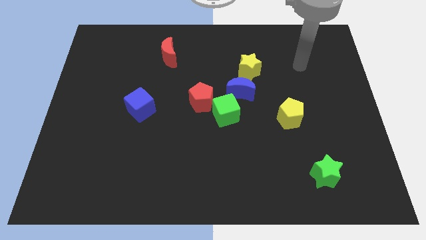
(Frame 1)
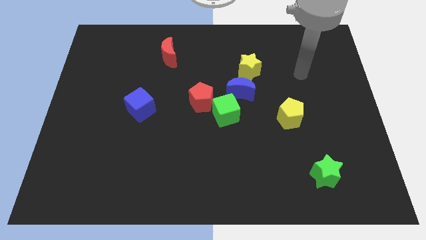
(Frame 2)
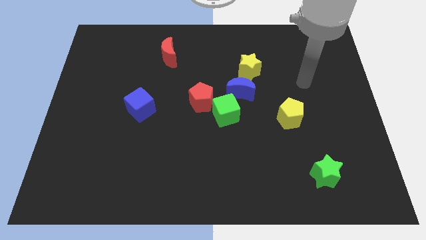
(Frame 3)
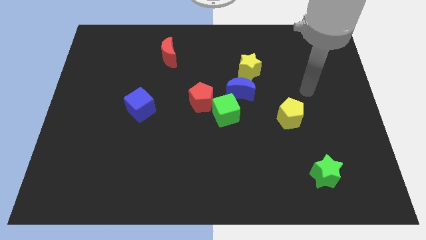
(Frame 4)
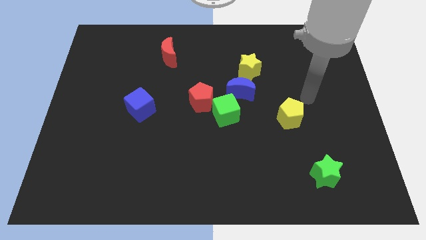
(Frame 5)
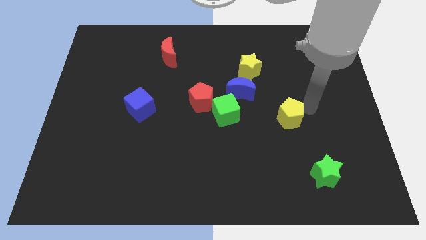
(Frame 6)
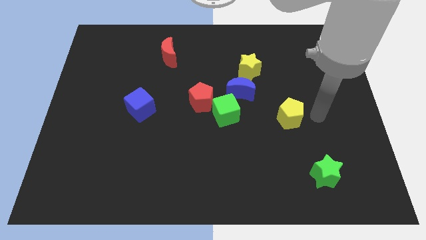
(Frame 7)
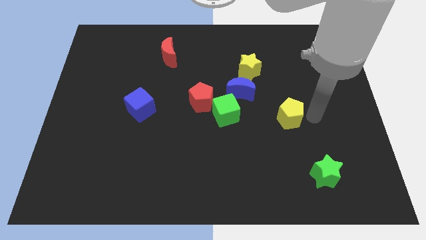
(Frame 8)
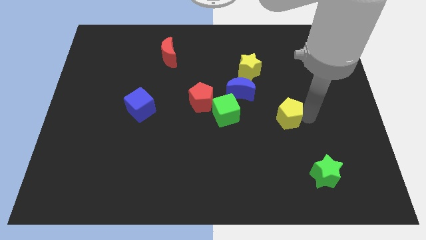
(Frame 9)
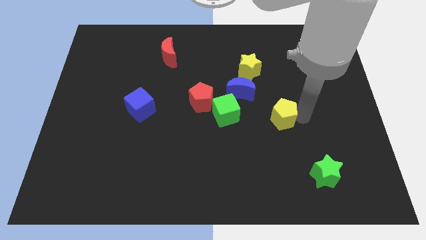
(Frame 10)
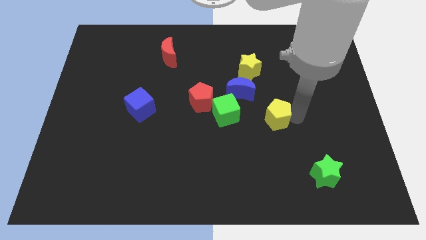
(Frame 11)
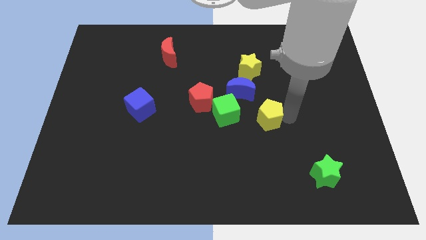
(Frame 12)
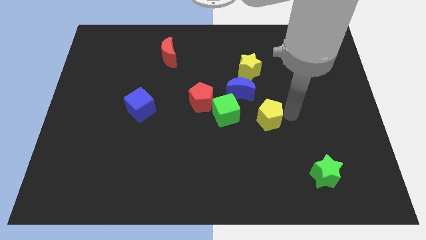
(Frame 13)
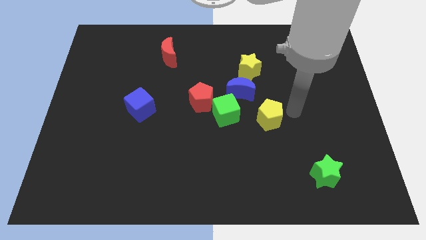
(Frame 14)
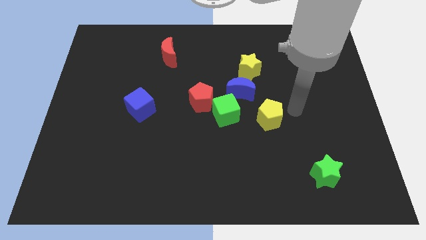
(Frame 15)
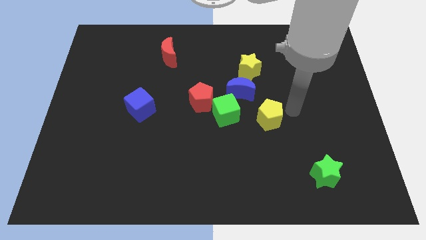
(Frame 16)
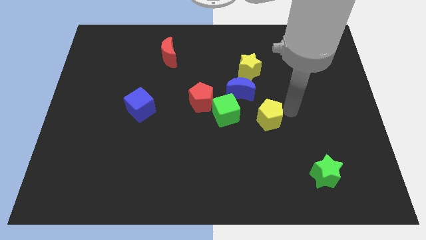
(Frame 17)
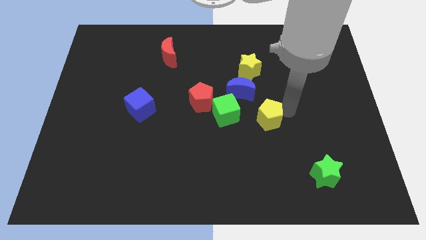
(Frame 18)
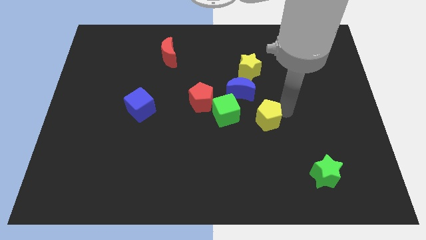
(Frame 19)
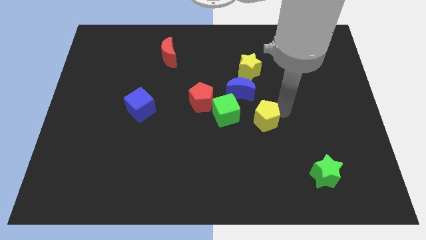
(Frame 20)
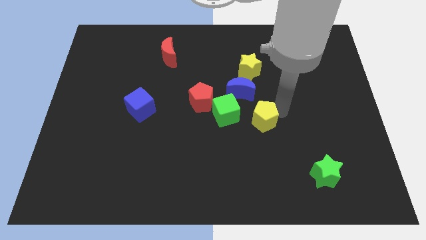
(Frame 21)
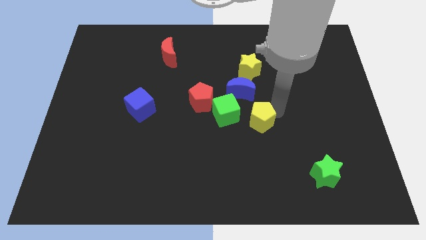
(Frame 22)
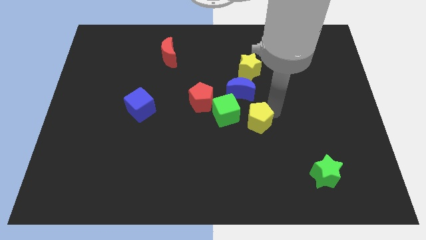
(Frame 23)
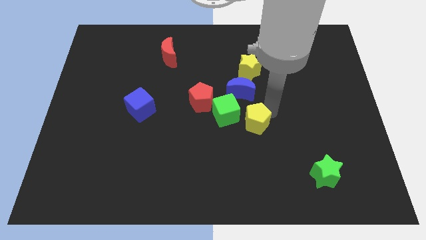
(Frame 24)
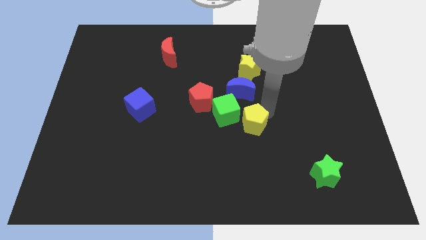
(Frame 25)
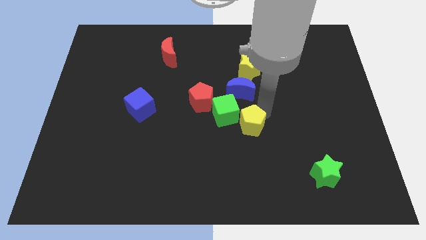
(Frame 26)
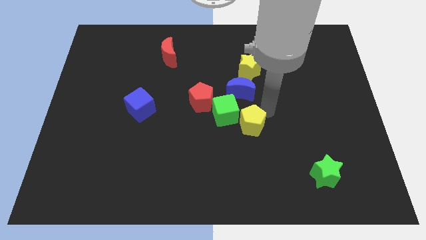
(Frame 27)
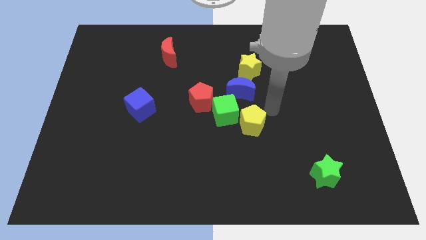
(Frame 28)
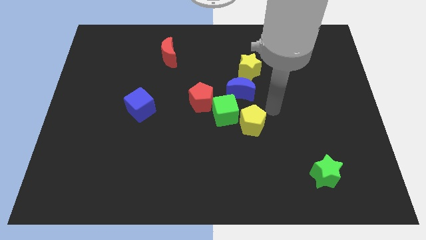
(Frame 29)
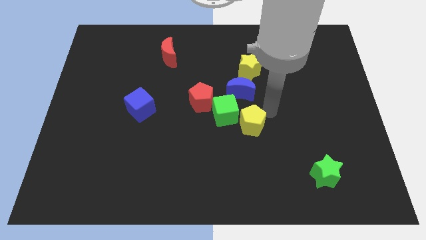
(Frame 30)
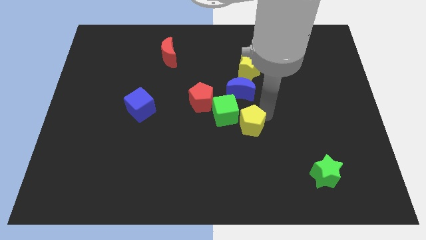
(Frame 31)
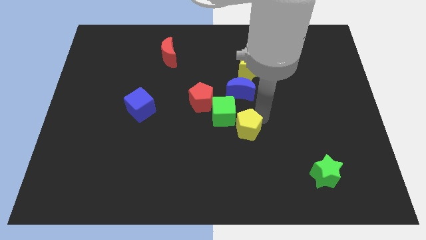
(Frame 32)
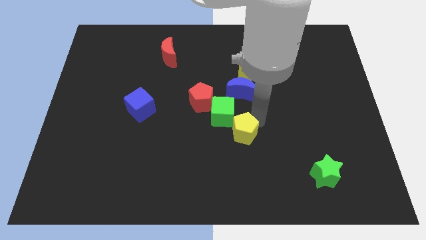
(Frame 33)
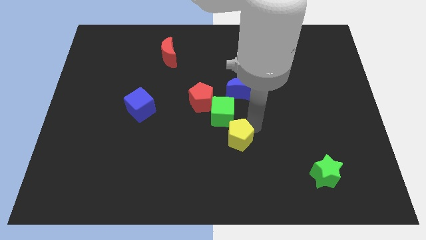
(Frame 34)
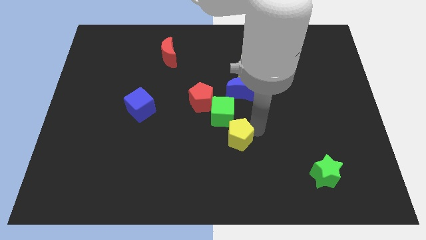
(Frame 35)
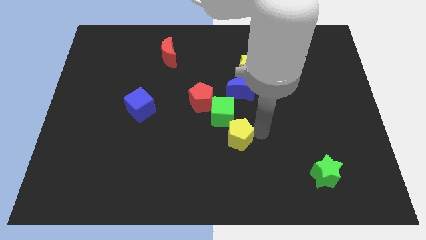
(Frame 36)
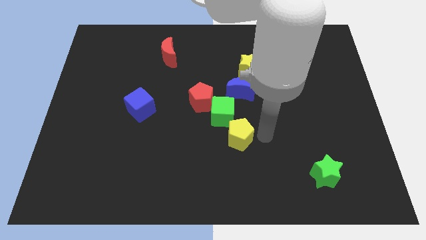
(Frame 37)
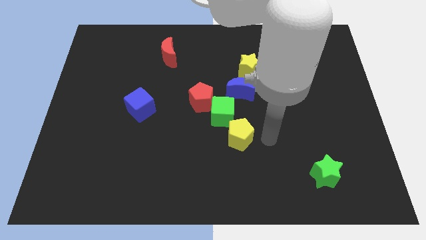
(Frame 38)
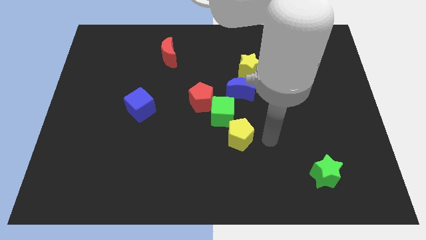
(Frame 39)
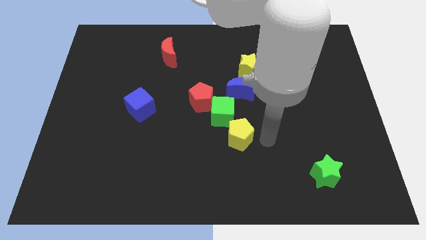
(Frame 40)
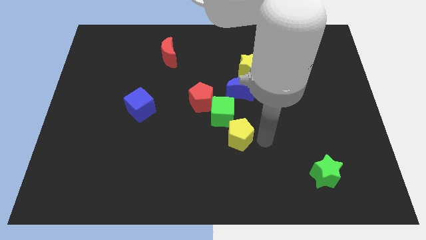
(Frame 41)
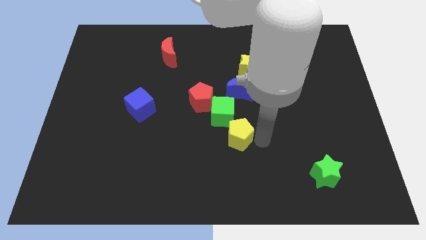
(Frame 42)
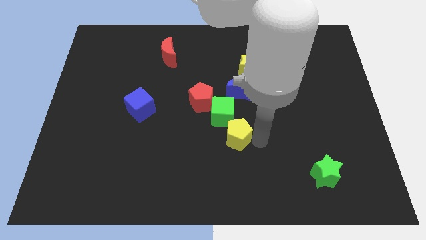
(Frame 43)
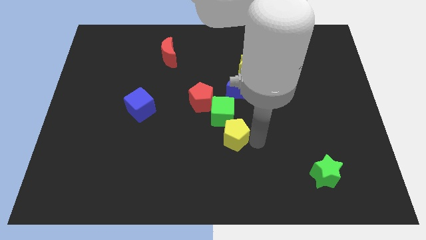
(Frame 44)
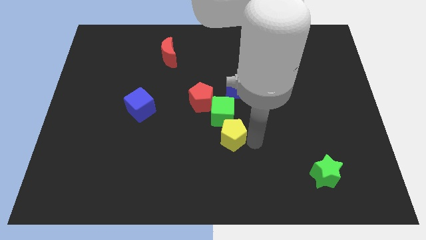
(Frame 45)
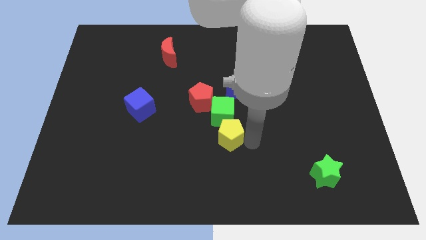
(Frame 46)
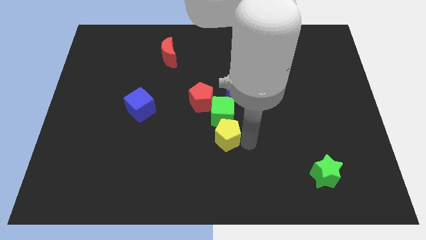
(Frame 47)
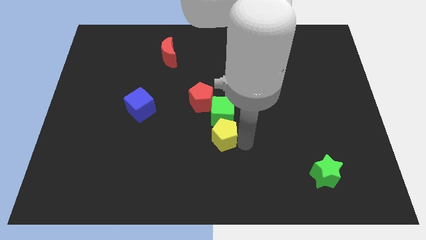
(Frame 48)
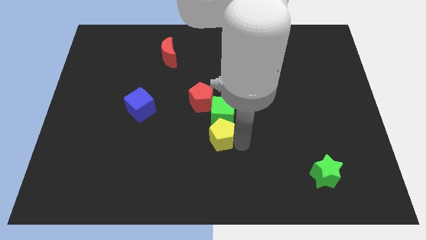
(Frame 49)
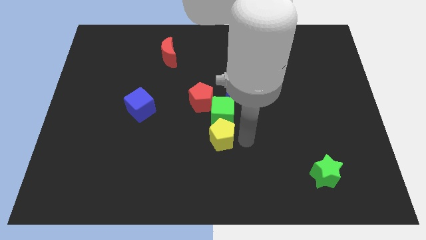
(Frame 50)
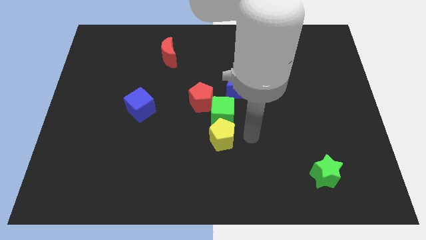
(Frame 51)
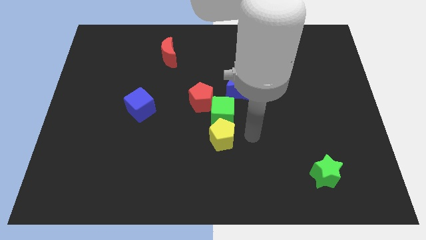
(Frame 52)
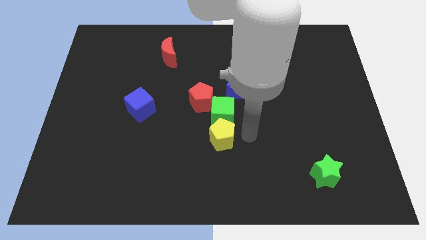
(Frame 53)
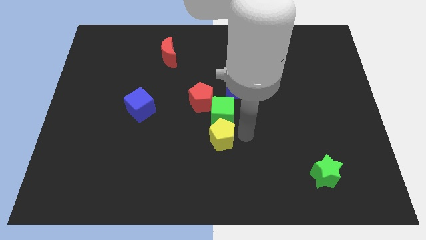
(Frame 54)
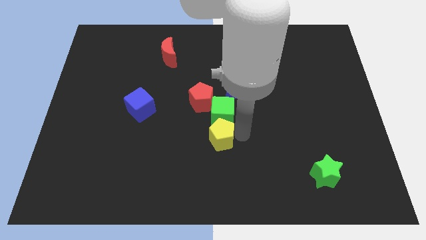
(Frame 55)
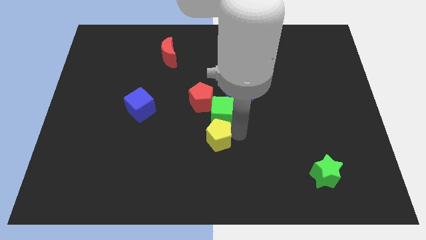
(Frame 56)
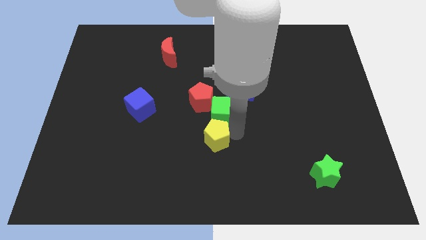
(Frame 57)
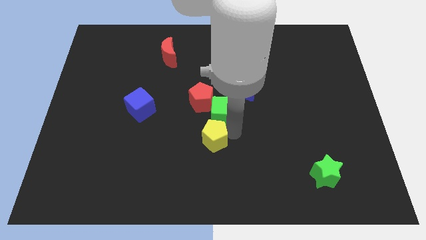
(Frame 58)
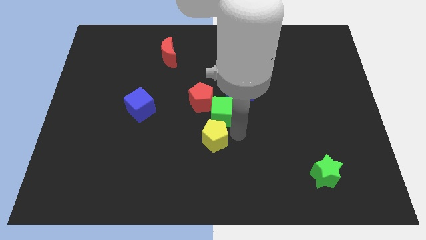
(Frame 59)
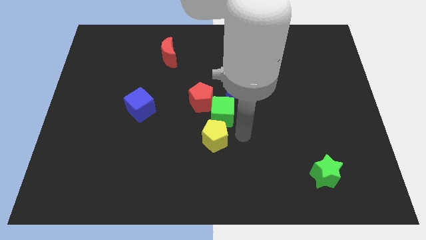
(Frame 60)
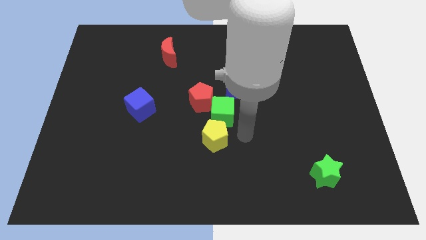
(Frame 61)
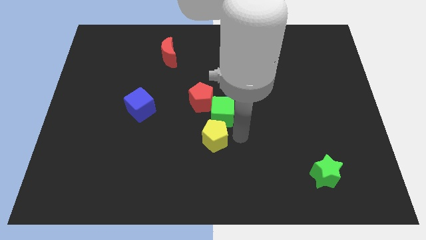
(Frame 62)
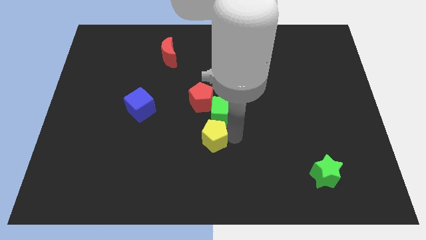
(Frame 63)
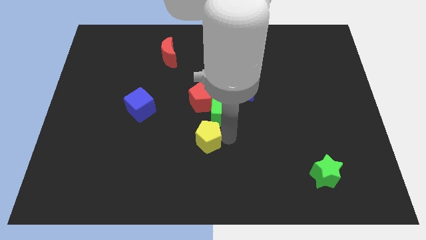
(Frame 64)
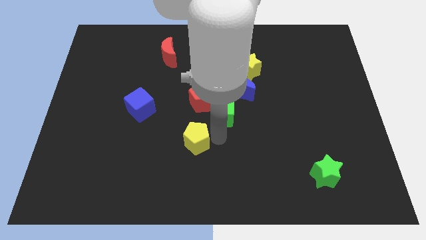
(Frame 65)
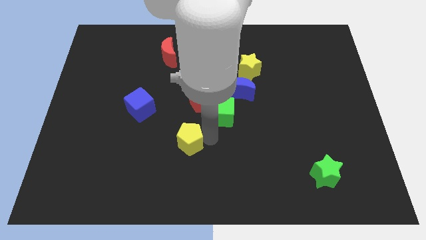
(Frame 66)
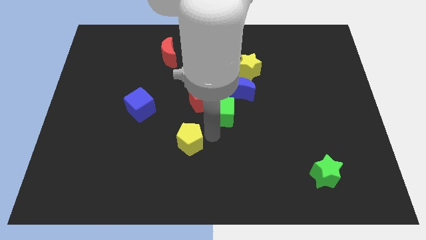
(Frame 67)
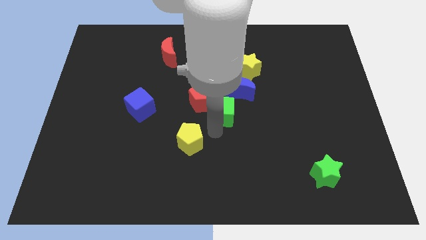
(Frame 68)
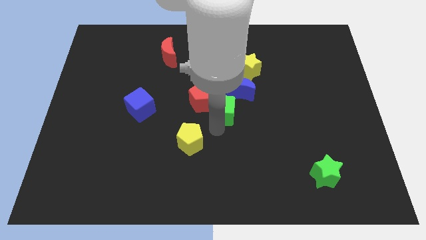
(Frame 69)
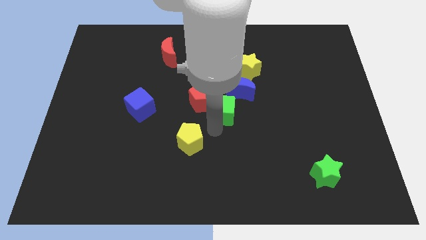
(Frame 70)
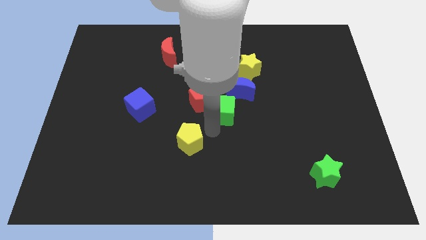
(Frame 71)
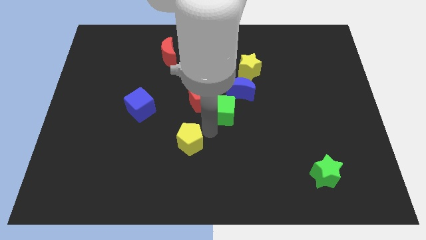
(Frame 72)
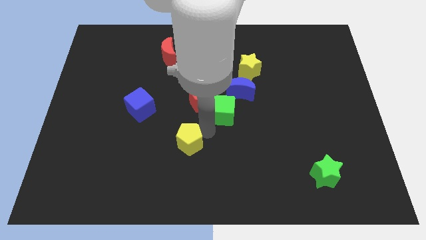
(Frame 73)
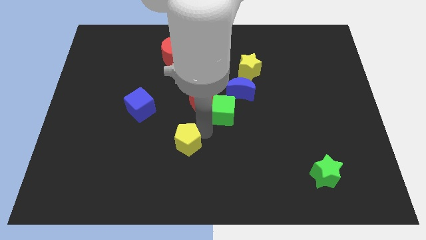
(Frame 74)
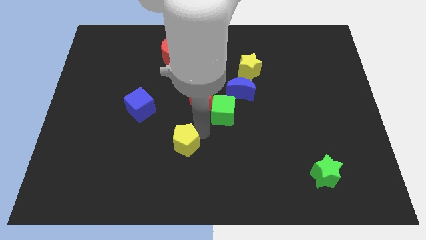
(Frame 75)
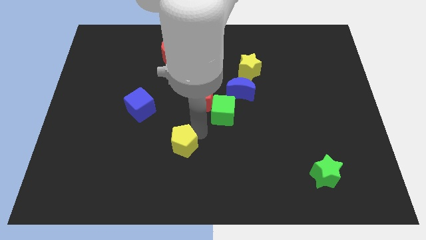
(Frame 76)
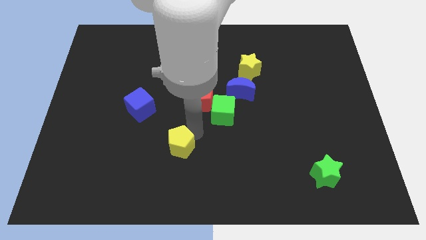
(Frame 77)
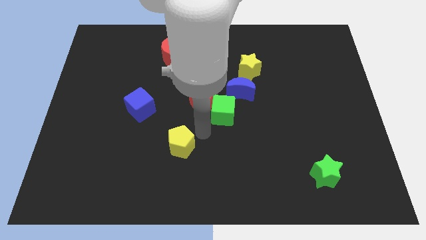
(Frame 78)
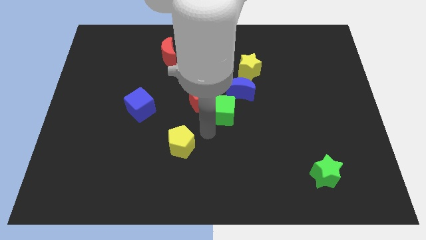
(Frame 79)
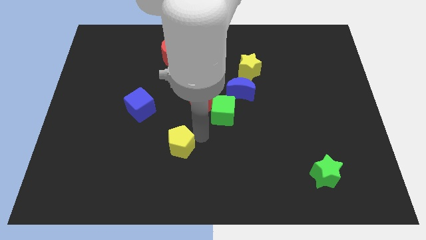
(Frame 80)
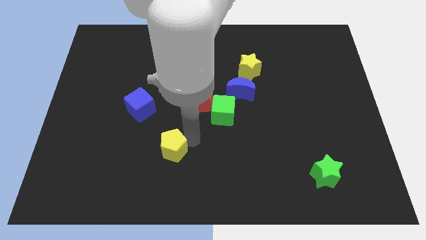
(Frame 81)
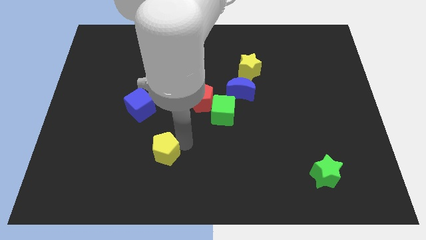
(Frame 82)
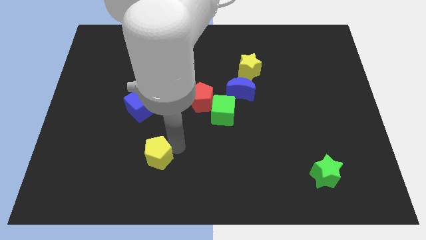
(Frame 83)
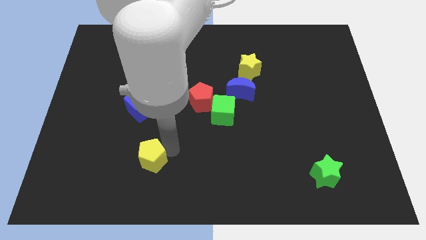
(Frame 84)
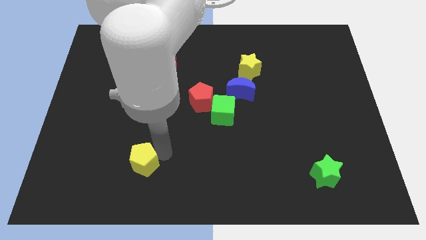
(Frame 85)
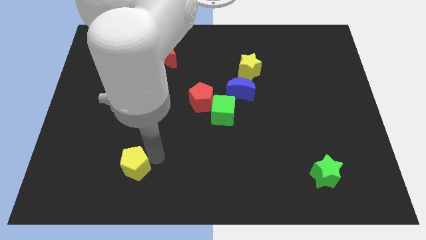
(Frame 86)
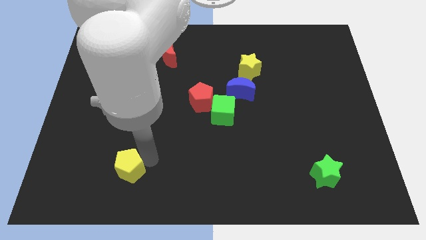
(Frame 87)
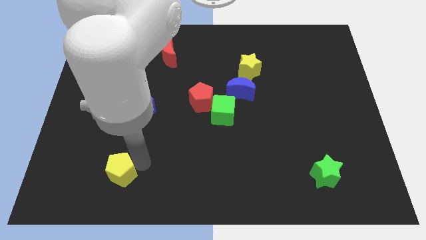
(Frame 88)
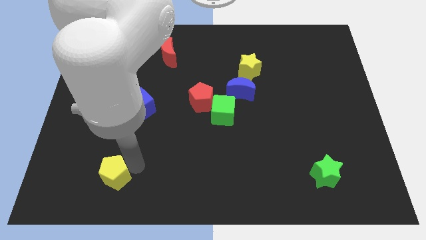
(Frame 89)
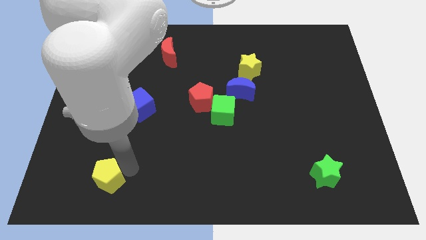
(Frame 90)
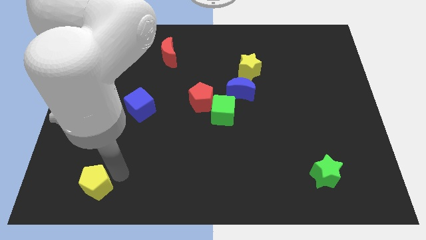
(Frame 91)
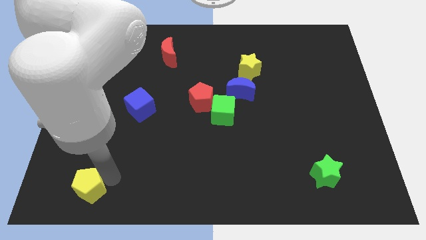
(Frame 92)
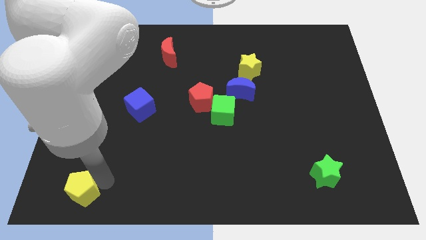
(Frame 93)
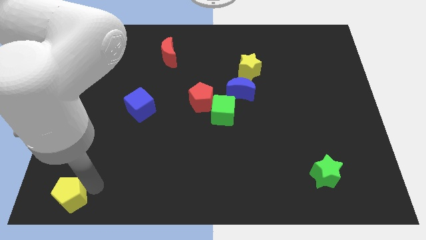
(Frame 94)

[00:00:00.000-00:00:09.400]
put the yellow pentagon to the bottom left of the board
